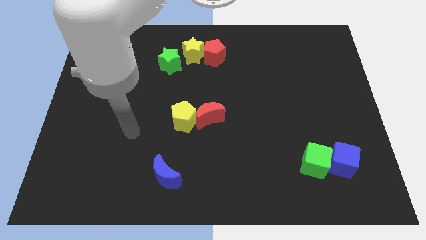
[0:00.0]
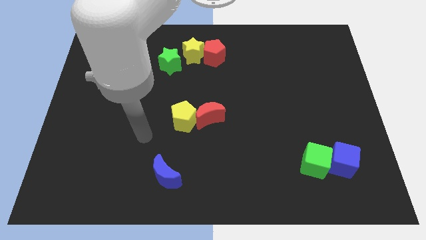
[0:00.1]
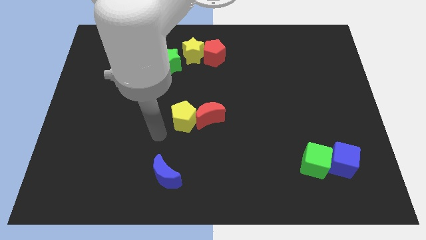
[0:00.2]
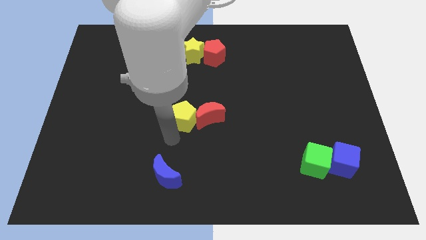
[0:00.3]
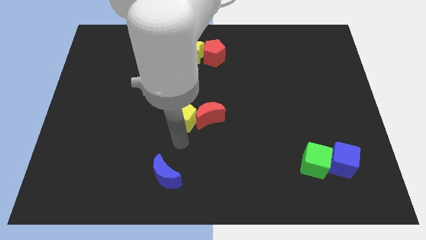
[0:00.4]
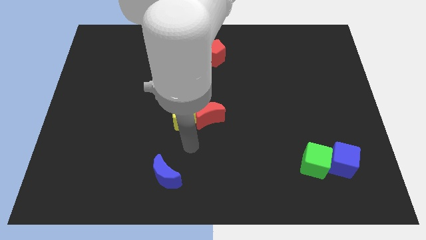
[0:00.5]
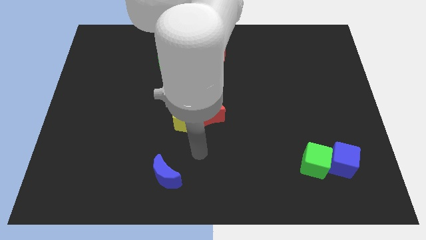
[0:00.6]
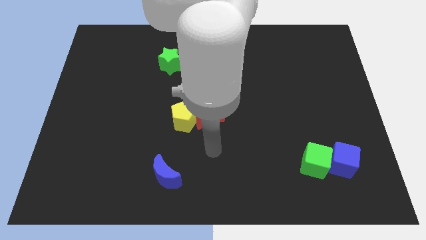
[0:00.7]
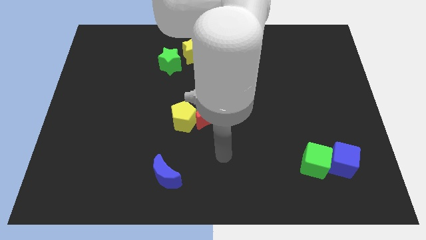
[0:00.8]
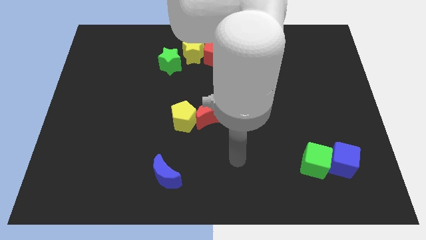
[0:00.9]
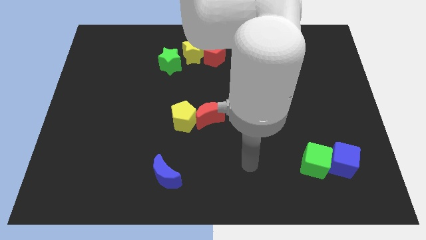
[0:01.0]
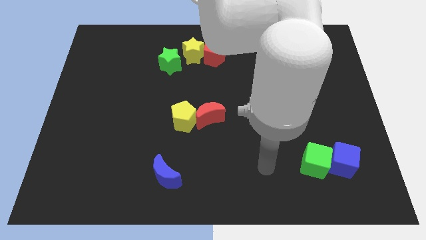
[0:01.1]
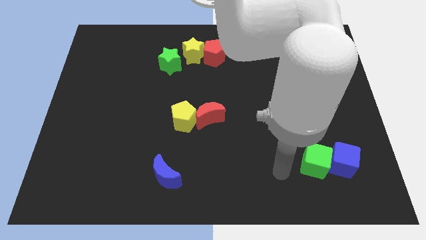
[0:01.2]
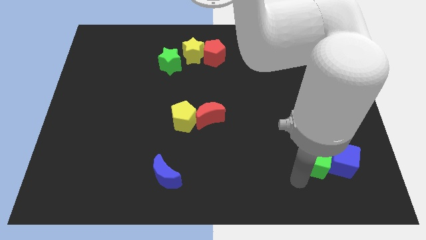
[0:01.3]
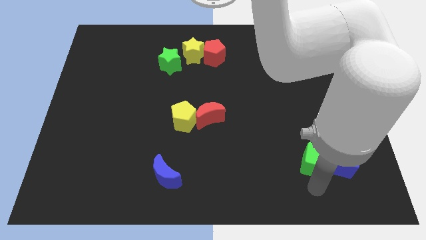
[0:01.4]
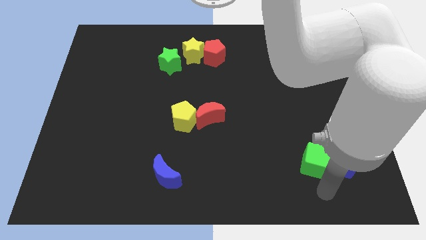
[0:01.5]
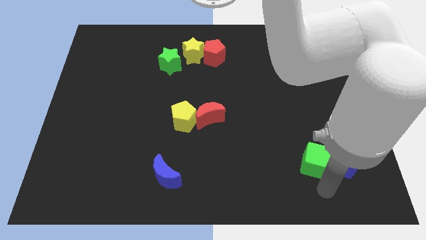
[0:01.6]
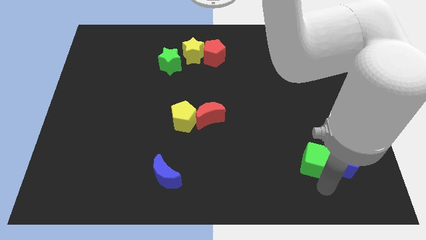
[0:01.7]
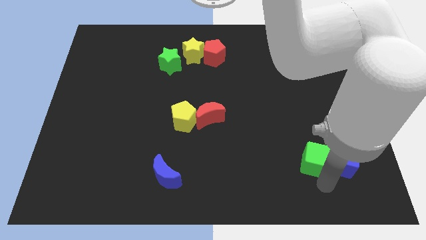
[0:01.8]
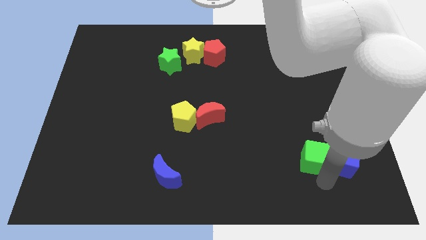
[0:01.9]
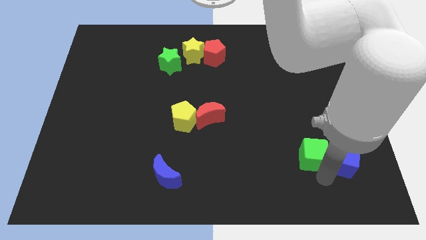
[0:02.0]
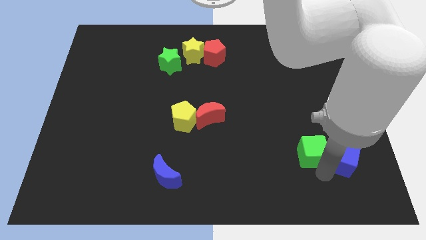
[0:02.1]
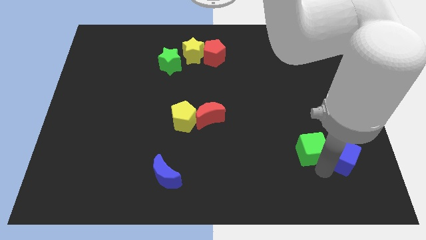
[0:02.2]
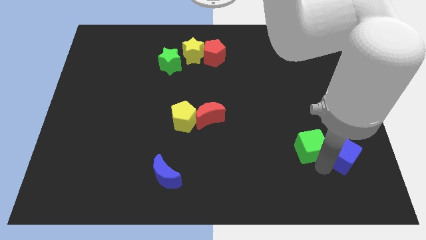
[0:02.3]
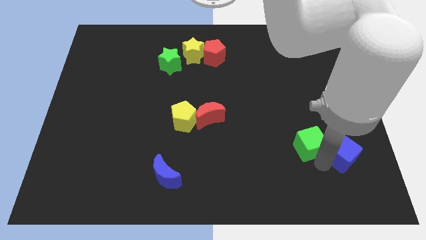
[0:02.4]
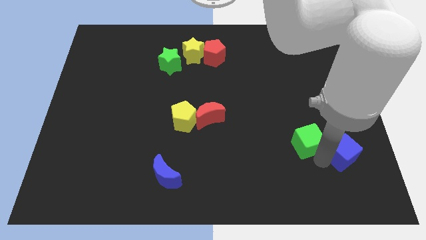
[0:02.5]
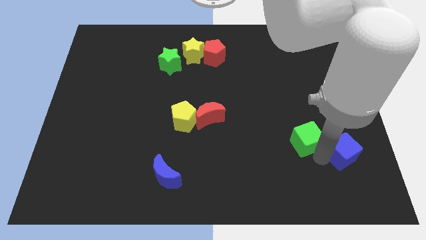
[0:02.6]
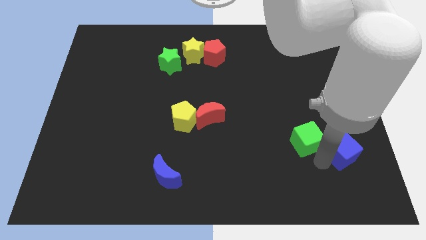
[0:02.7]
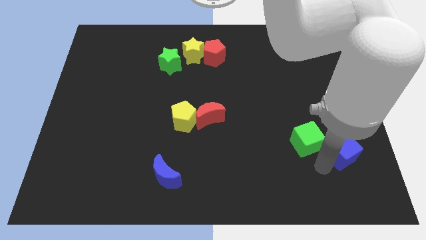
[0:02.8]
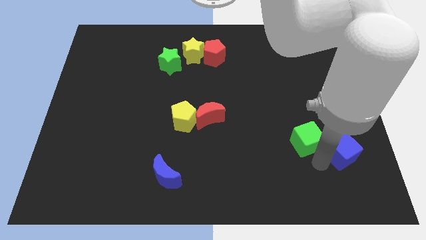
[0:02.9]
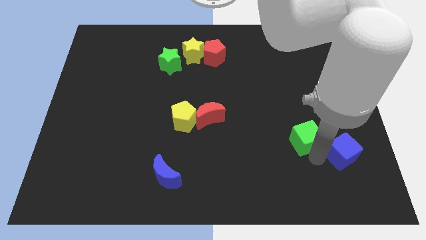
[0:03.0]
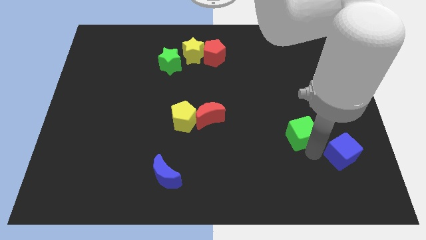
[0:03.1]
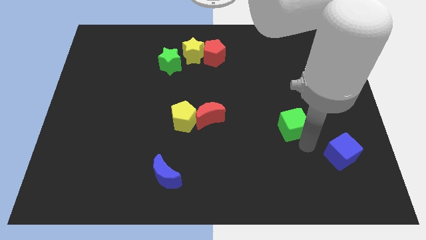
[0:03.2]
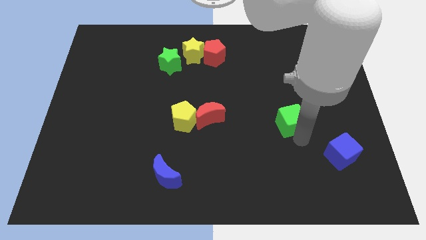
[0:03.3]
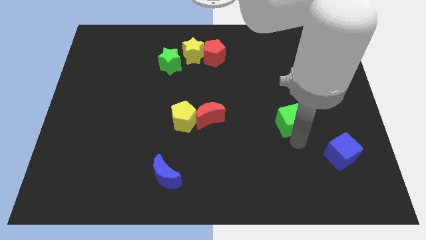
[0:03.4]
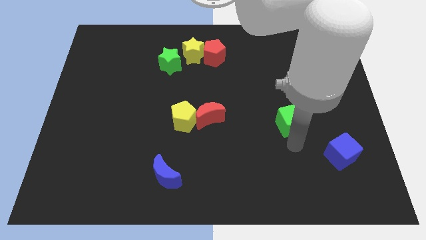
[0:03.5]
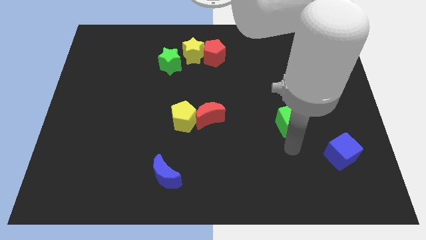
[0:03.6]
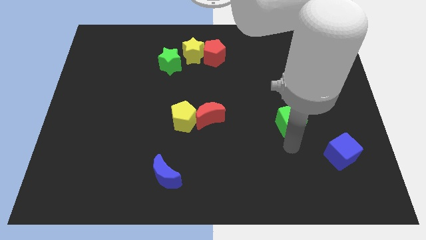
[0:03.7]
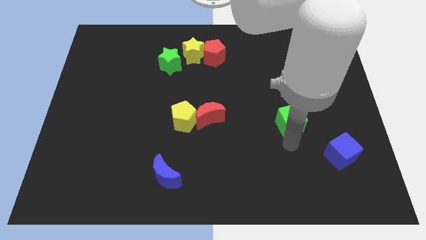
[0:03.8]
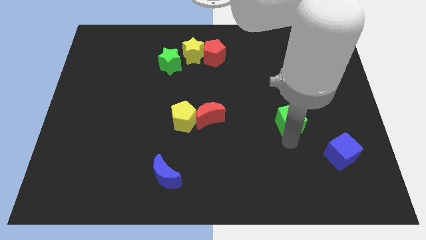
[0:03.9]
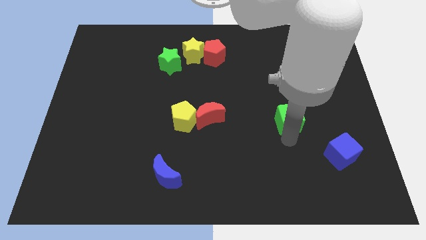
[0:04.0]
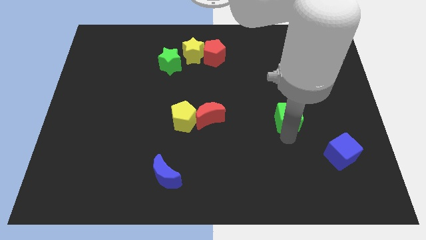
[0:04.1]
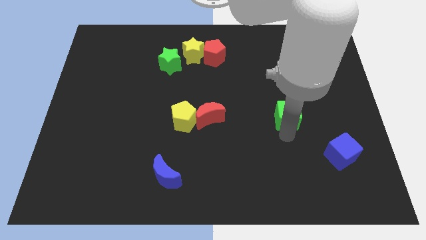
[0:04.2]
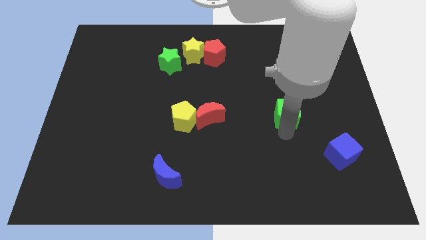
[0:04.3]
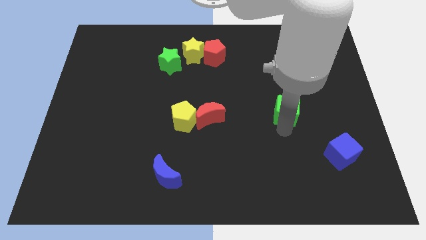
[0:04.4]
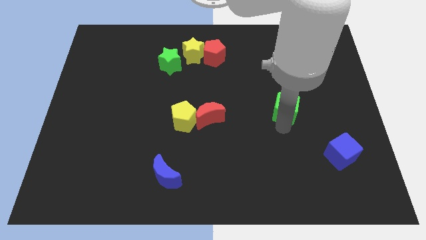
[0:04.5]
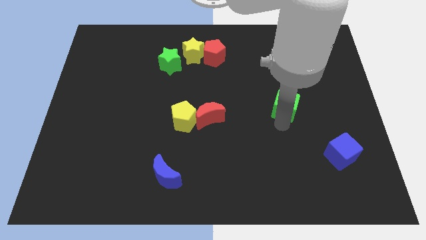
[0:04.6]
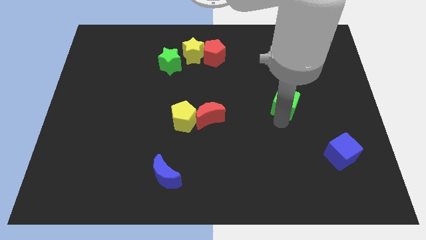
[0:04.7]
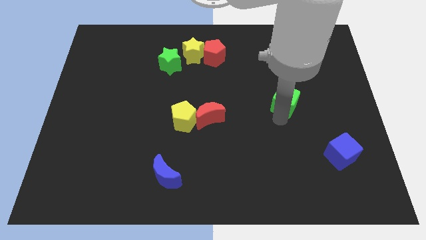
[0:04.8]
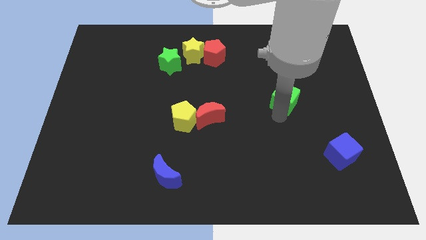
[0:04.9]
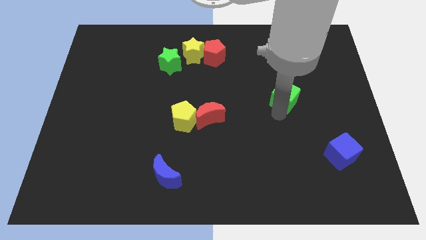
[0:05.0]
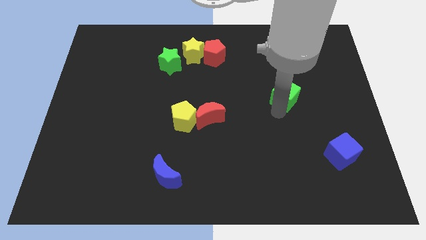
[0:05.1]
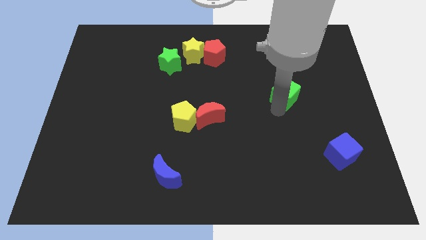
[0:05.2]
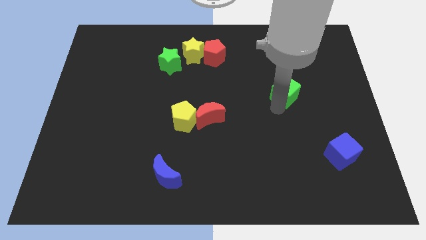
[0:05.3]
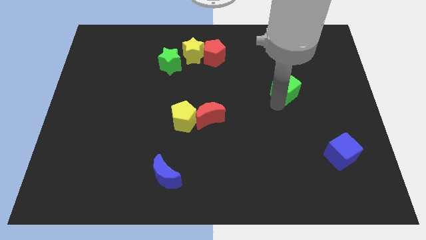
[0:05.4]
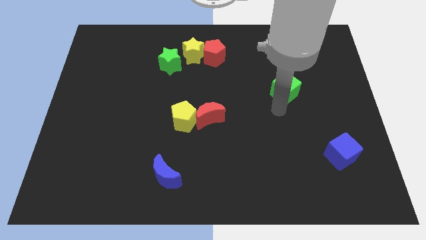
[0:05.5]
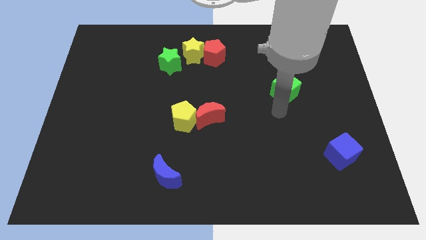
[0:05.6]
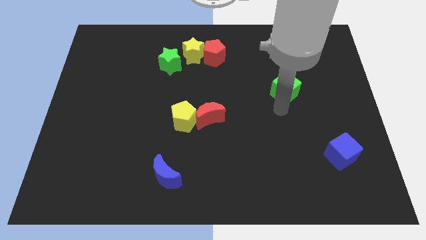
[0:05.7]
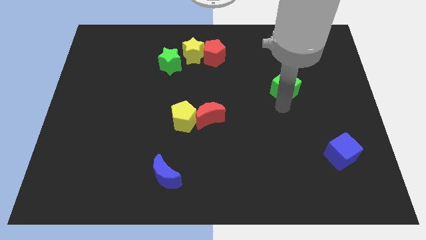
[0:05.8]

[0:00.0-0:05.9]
move the green cube upwards

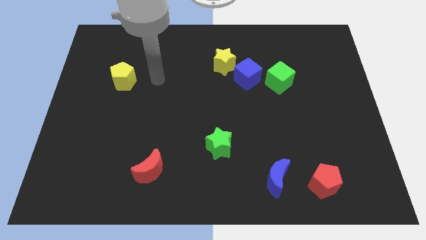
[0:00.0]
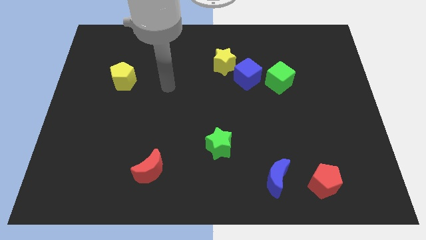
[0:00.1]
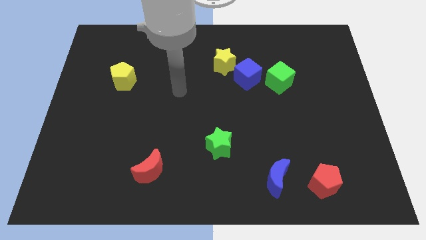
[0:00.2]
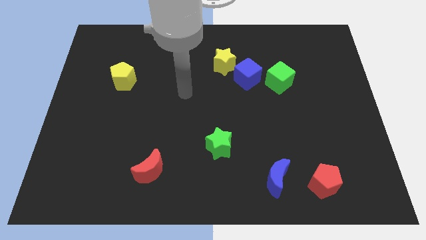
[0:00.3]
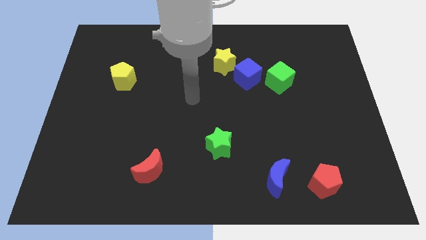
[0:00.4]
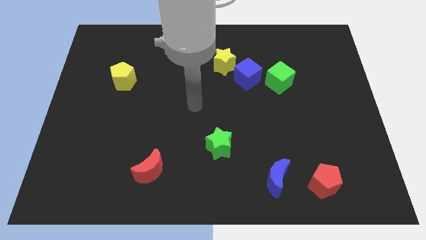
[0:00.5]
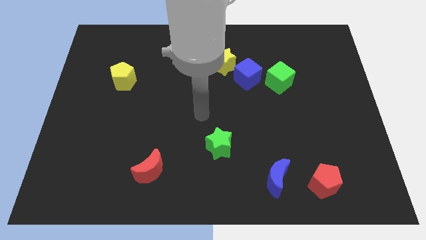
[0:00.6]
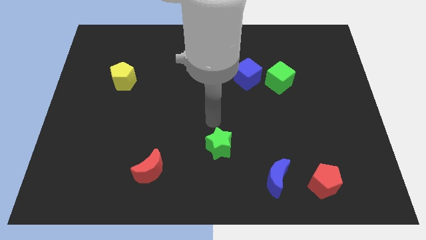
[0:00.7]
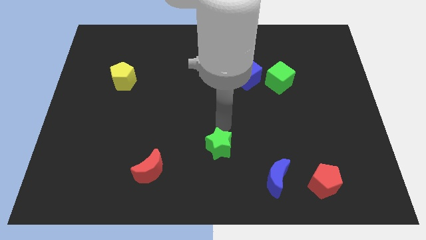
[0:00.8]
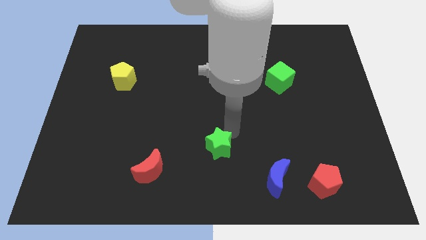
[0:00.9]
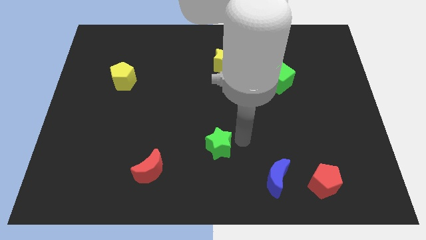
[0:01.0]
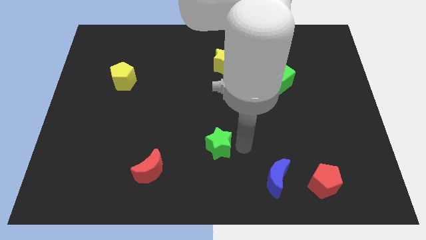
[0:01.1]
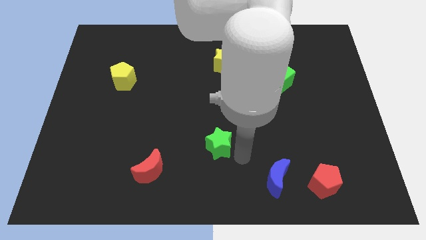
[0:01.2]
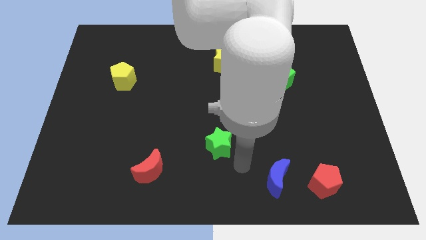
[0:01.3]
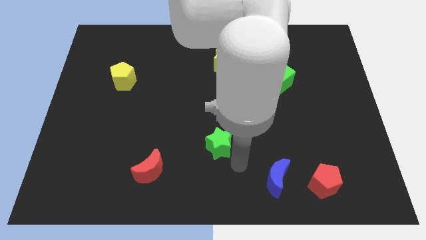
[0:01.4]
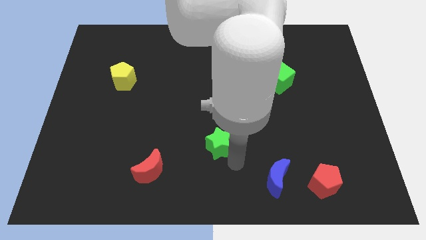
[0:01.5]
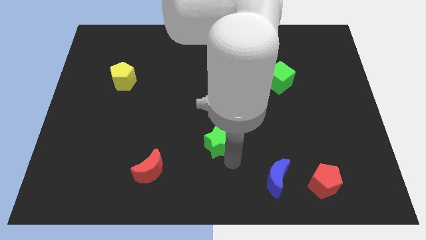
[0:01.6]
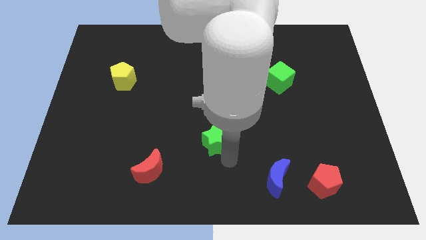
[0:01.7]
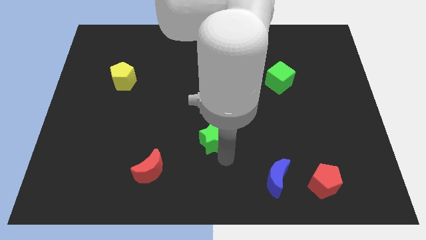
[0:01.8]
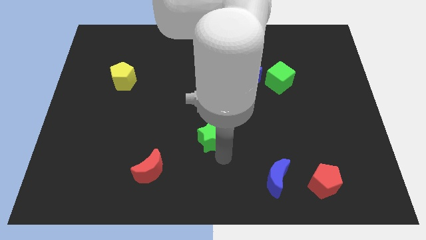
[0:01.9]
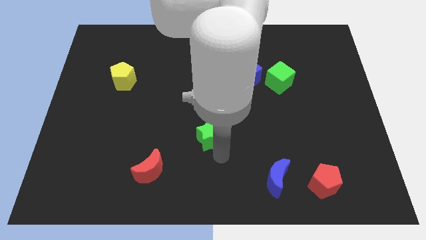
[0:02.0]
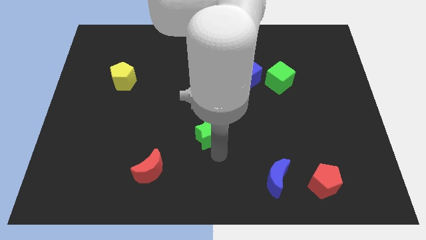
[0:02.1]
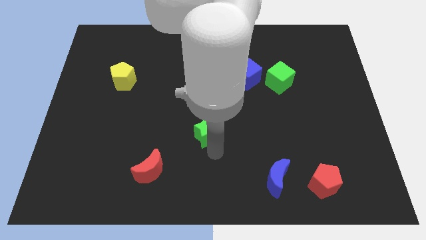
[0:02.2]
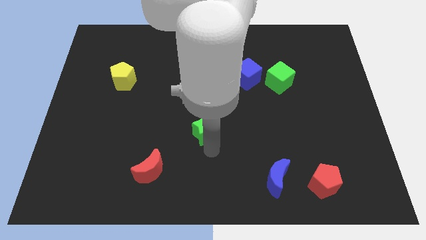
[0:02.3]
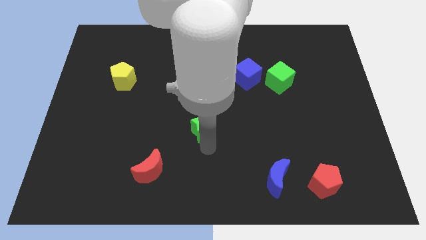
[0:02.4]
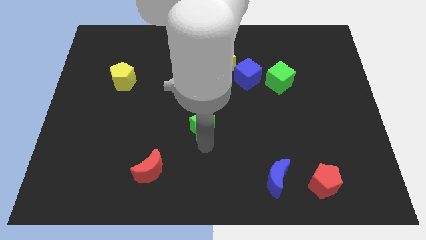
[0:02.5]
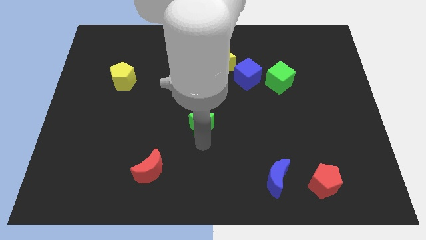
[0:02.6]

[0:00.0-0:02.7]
slide the green star up and to the left a bit
